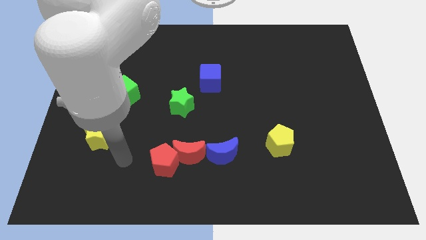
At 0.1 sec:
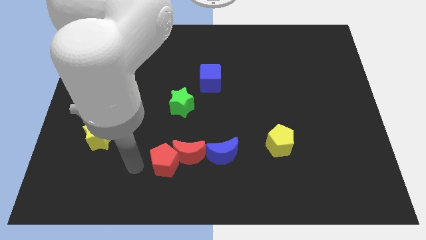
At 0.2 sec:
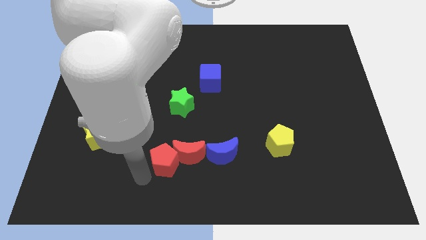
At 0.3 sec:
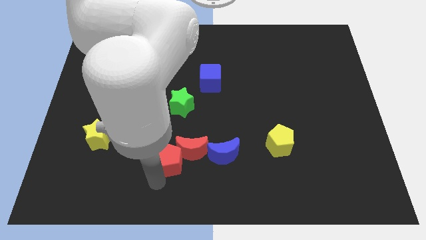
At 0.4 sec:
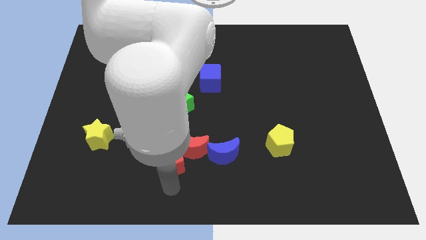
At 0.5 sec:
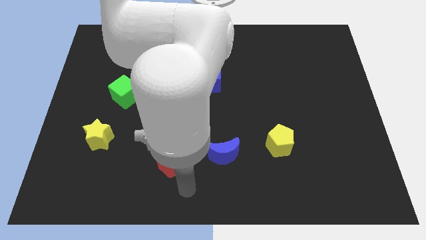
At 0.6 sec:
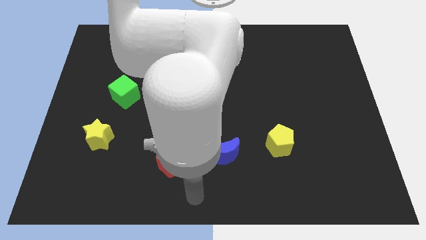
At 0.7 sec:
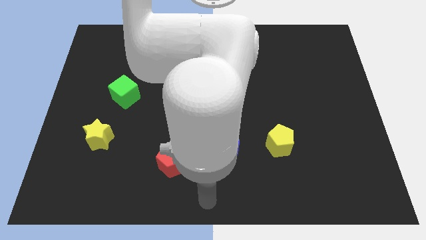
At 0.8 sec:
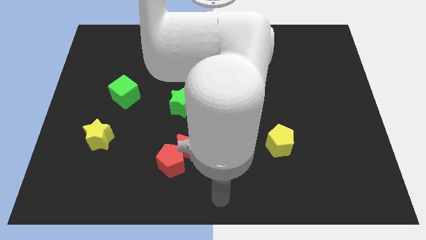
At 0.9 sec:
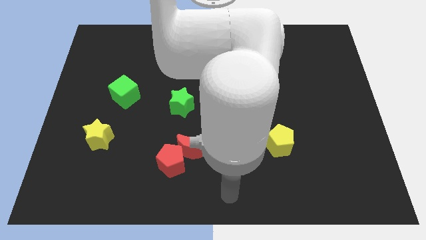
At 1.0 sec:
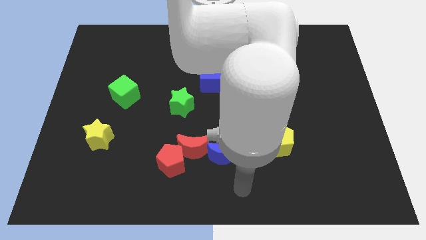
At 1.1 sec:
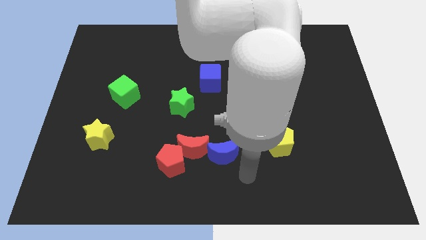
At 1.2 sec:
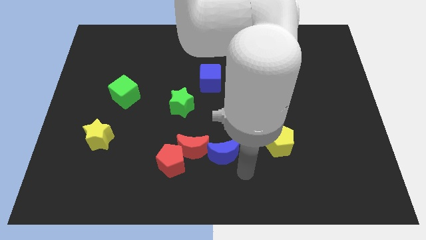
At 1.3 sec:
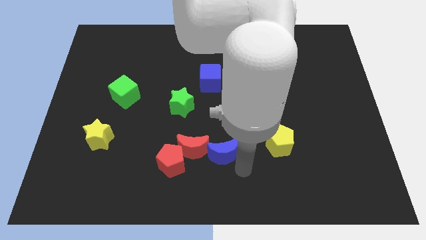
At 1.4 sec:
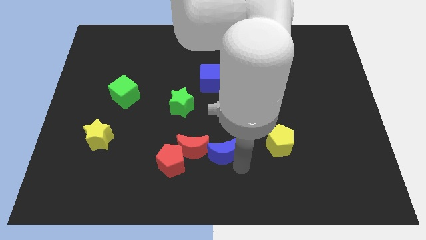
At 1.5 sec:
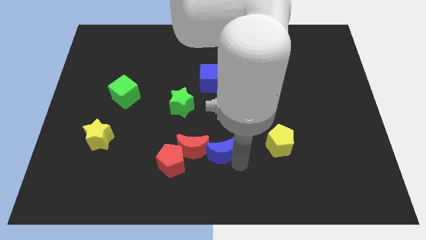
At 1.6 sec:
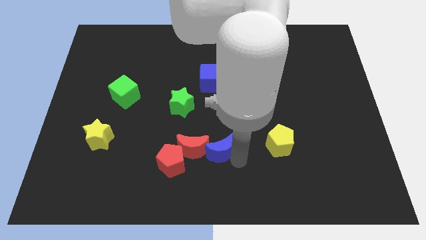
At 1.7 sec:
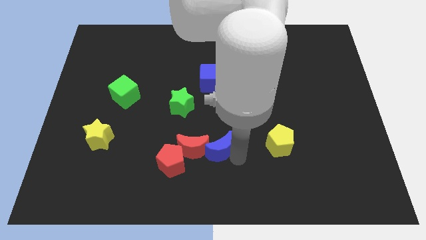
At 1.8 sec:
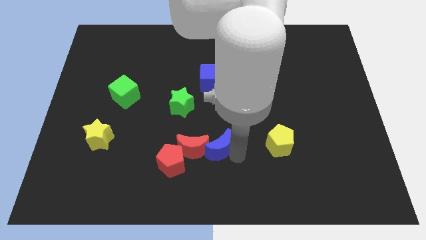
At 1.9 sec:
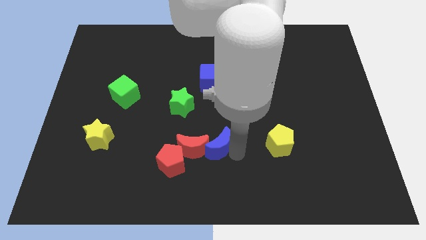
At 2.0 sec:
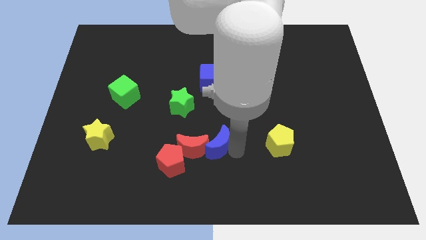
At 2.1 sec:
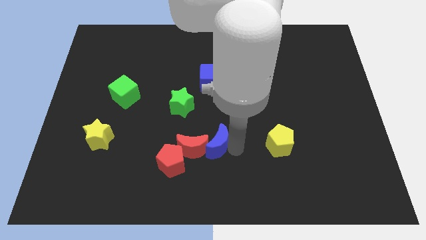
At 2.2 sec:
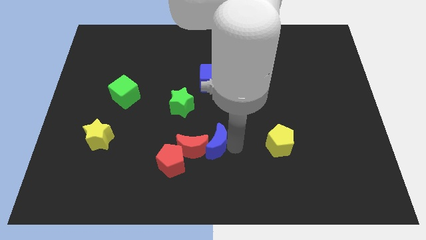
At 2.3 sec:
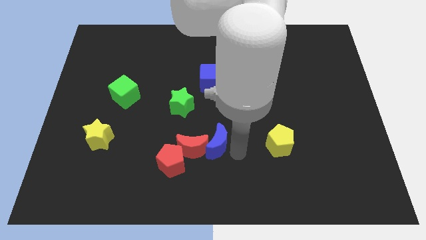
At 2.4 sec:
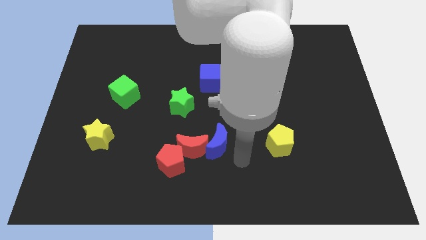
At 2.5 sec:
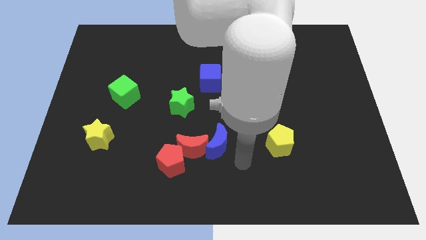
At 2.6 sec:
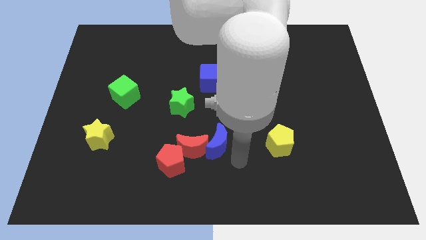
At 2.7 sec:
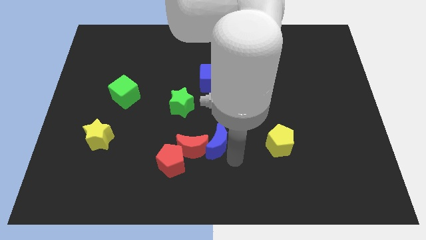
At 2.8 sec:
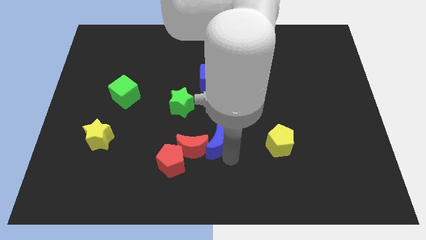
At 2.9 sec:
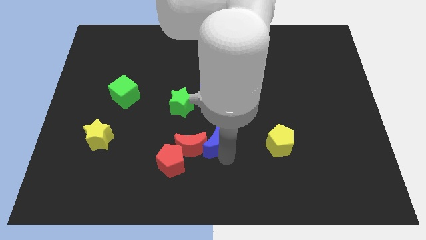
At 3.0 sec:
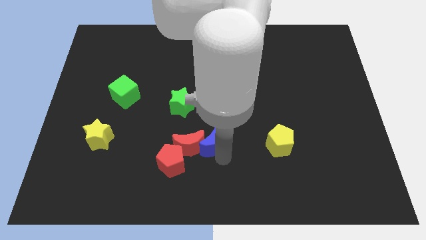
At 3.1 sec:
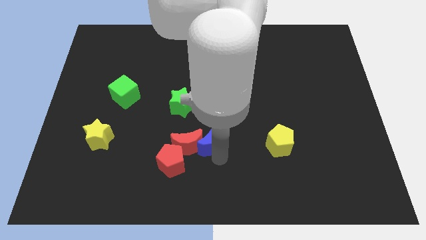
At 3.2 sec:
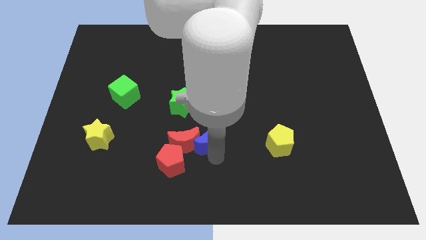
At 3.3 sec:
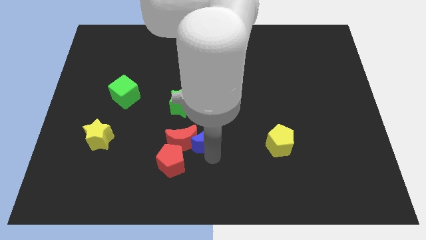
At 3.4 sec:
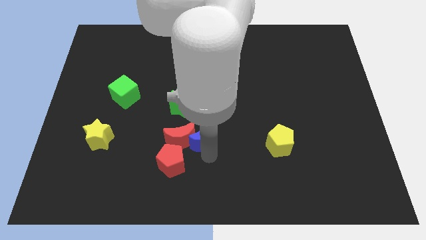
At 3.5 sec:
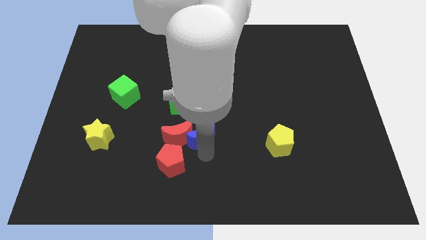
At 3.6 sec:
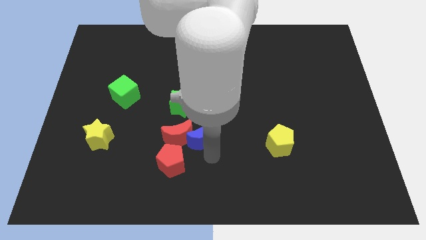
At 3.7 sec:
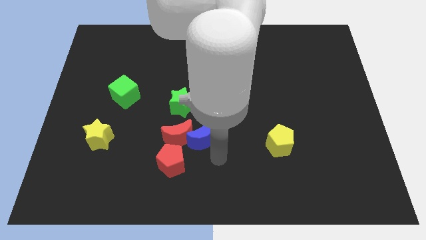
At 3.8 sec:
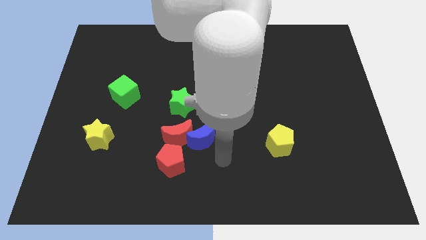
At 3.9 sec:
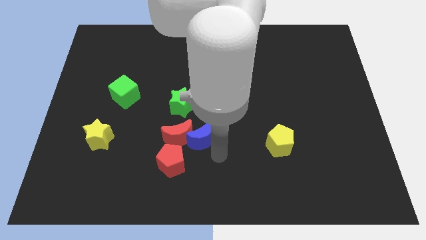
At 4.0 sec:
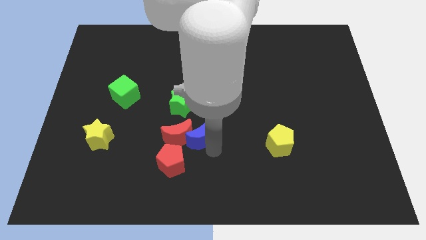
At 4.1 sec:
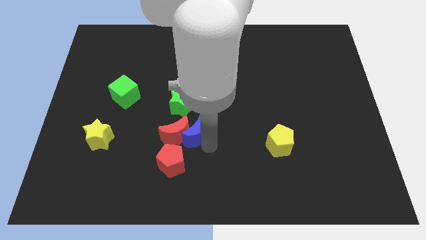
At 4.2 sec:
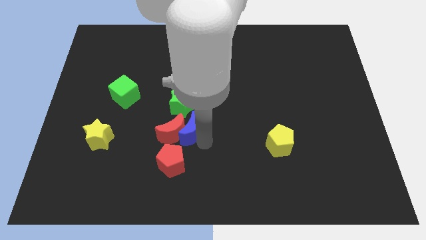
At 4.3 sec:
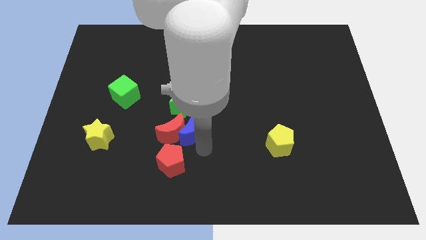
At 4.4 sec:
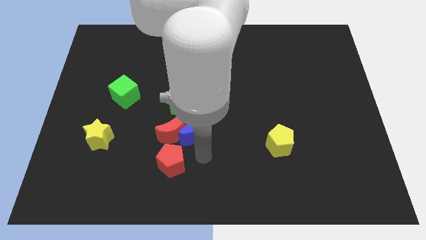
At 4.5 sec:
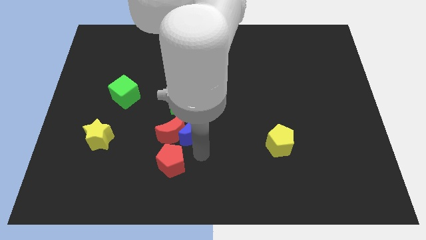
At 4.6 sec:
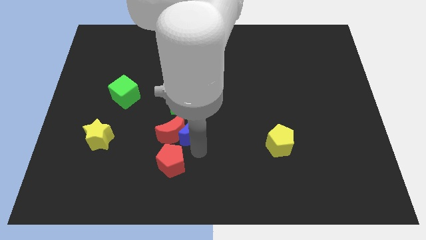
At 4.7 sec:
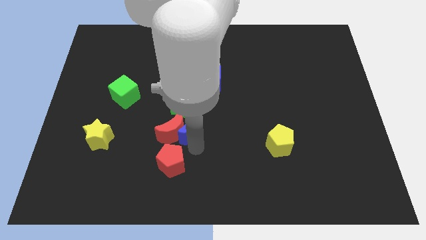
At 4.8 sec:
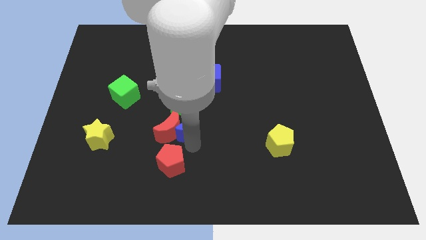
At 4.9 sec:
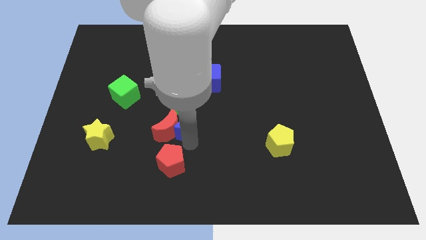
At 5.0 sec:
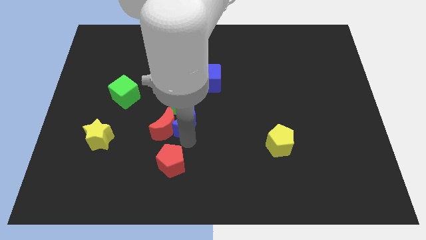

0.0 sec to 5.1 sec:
slide the blue moon next to the green star

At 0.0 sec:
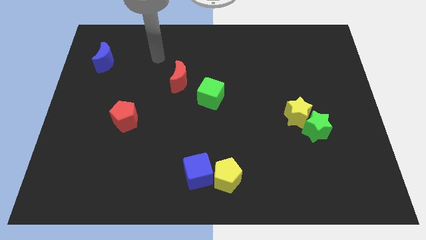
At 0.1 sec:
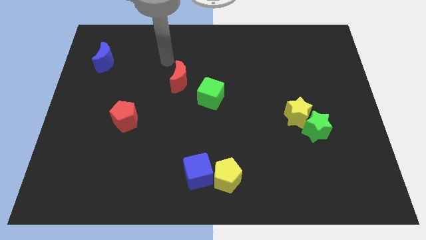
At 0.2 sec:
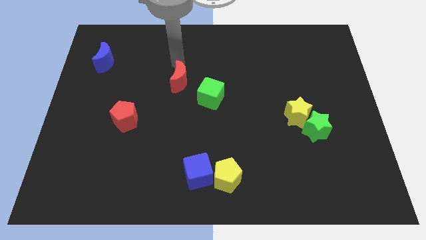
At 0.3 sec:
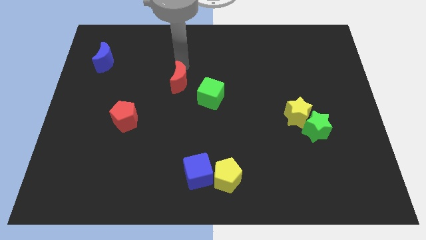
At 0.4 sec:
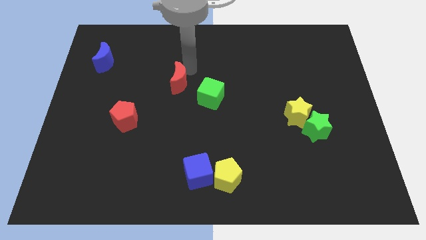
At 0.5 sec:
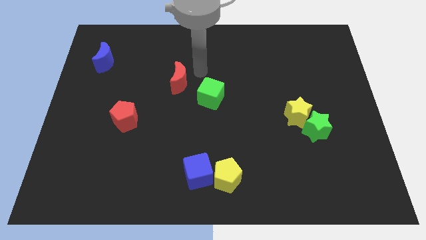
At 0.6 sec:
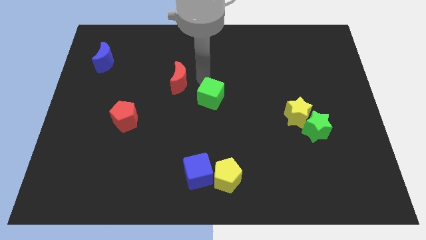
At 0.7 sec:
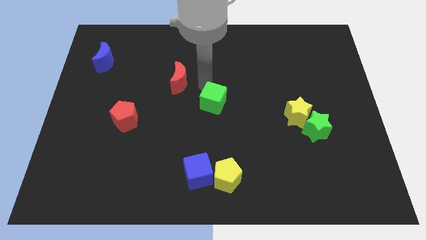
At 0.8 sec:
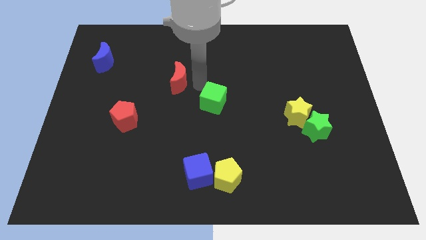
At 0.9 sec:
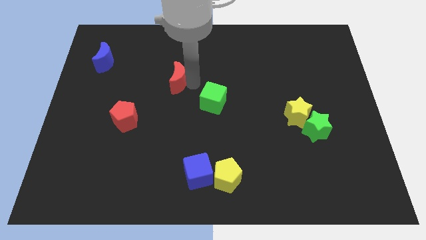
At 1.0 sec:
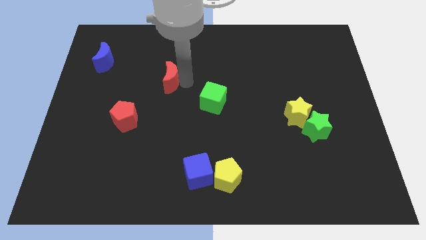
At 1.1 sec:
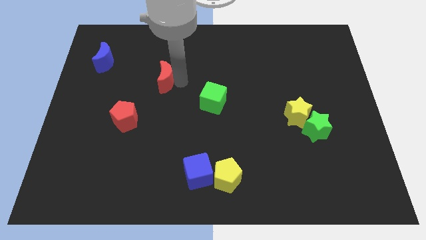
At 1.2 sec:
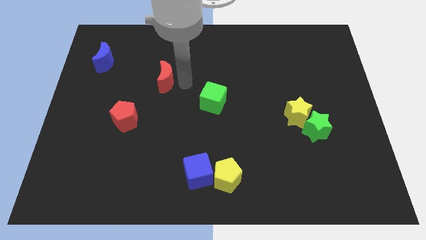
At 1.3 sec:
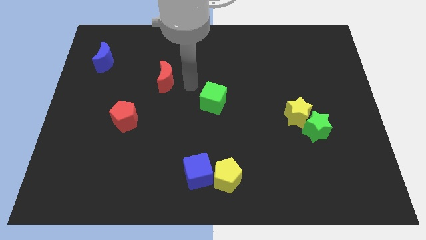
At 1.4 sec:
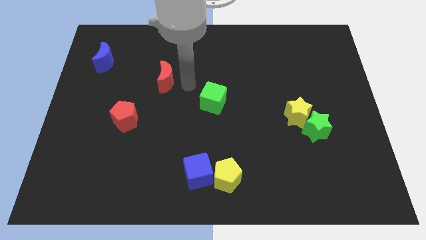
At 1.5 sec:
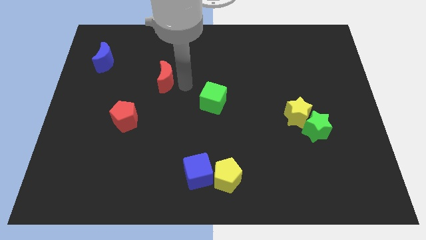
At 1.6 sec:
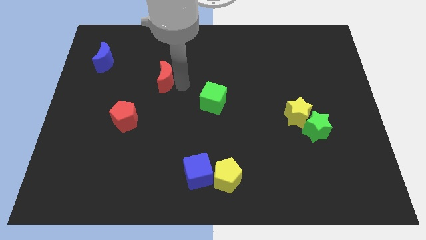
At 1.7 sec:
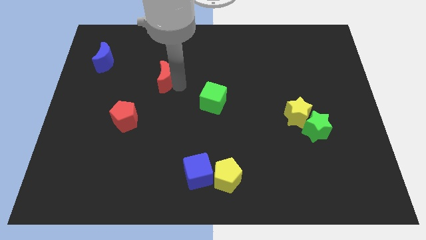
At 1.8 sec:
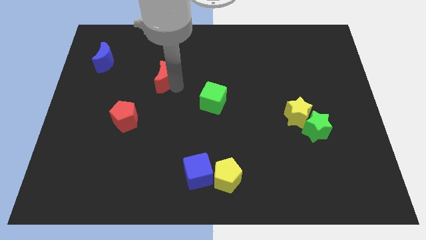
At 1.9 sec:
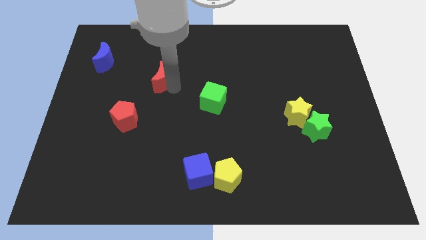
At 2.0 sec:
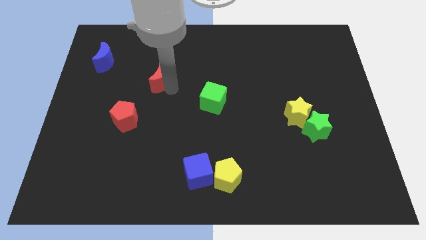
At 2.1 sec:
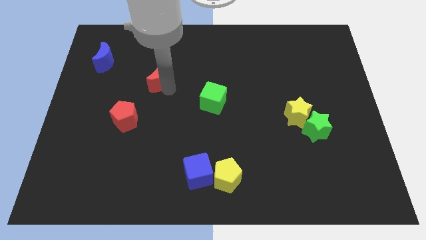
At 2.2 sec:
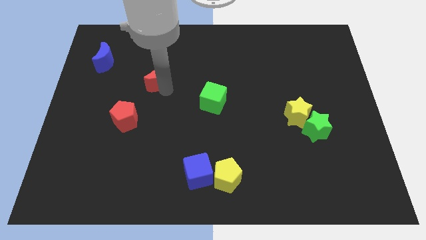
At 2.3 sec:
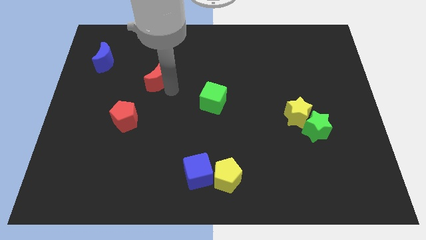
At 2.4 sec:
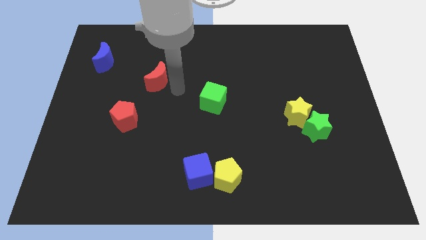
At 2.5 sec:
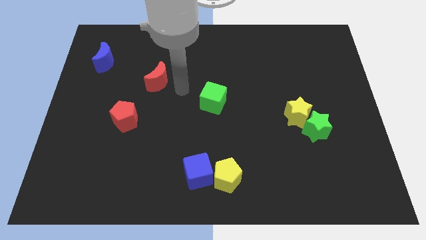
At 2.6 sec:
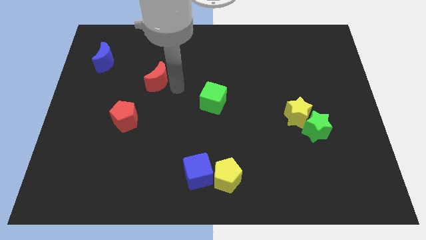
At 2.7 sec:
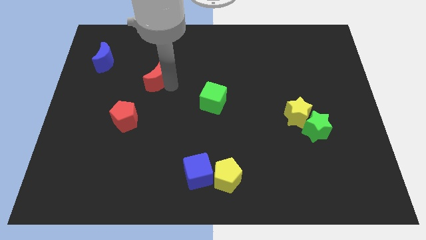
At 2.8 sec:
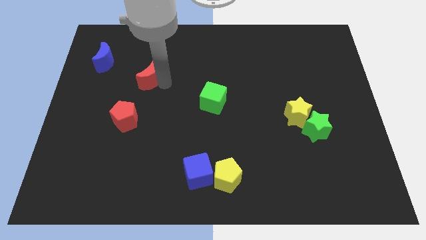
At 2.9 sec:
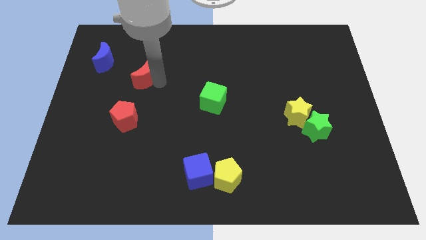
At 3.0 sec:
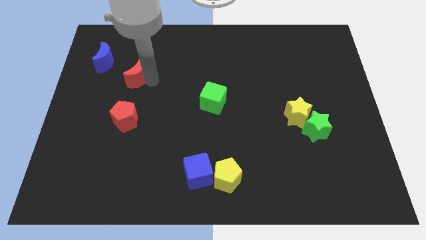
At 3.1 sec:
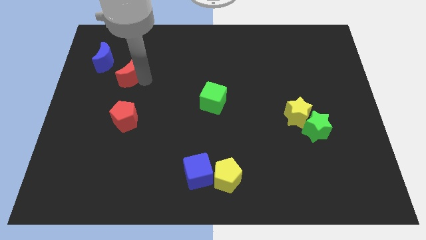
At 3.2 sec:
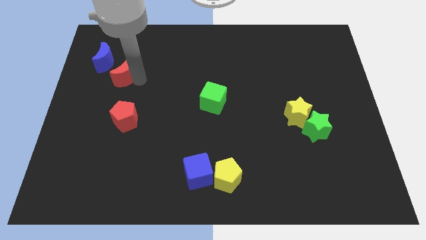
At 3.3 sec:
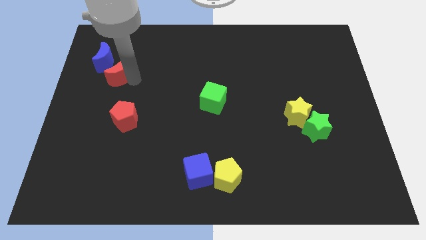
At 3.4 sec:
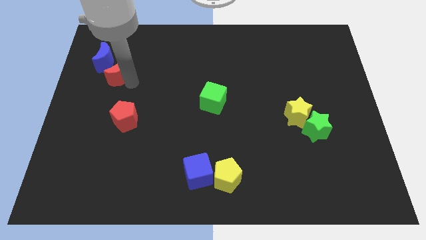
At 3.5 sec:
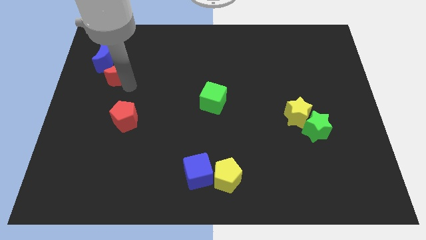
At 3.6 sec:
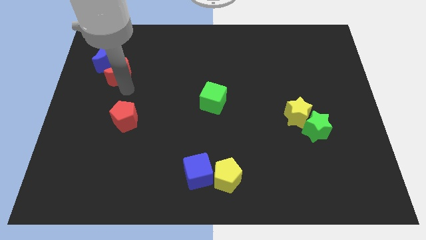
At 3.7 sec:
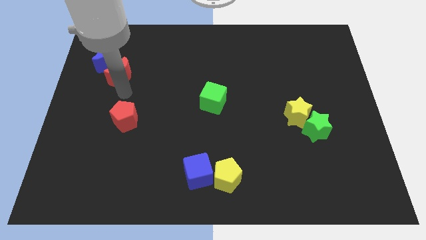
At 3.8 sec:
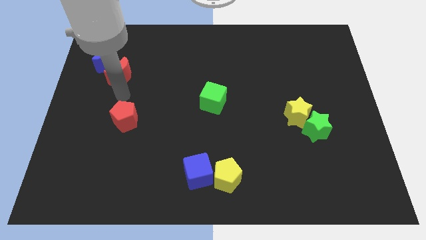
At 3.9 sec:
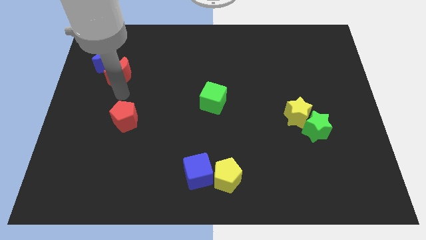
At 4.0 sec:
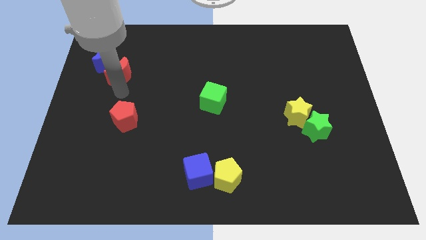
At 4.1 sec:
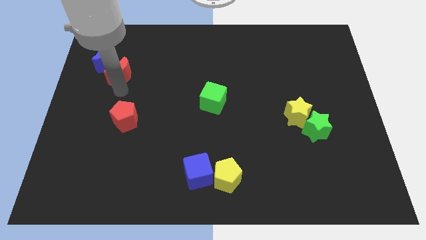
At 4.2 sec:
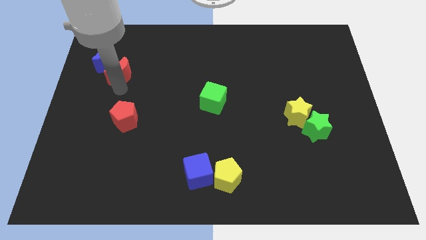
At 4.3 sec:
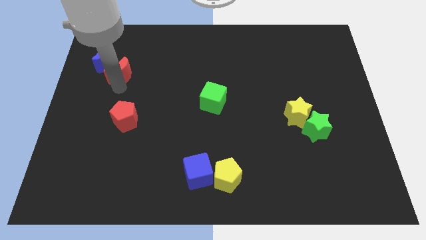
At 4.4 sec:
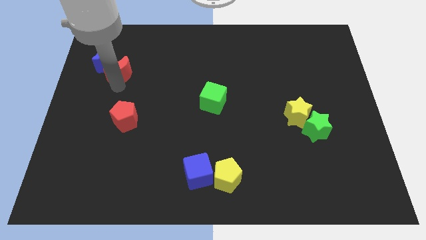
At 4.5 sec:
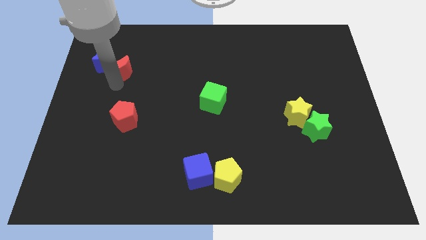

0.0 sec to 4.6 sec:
push the red moon close to the blue moon
